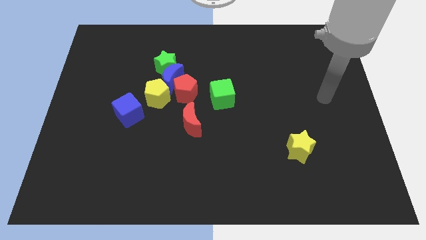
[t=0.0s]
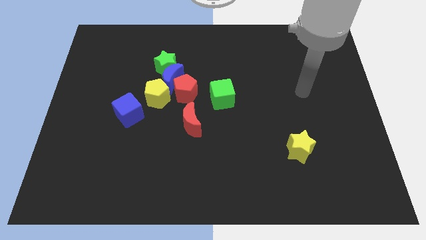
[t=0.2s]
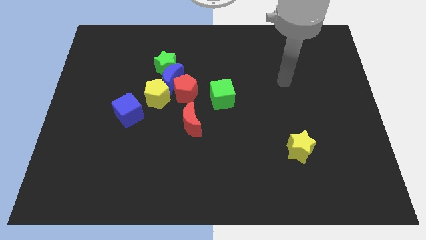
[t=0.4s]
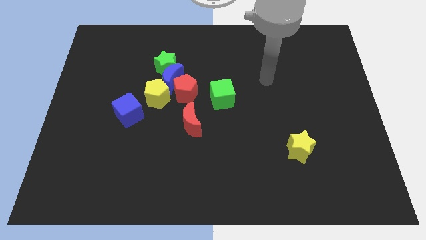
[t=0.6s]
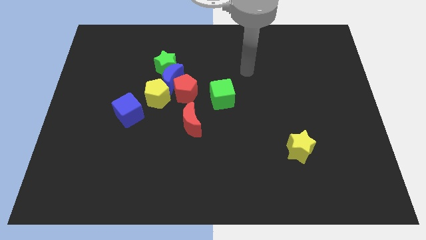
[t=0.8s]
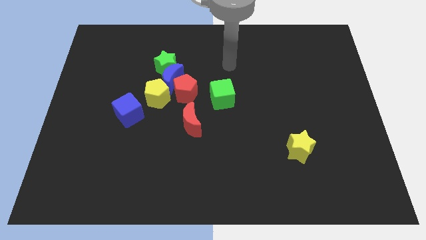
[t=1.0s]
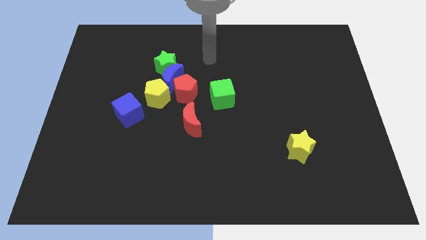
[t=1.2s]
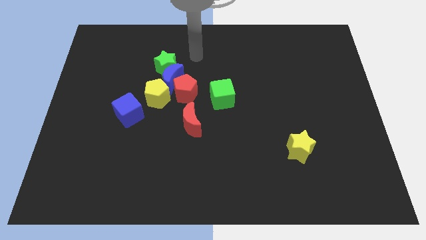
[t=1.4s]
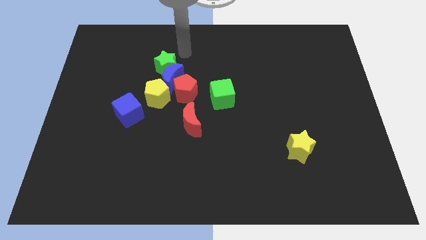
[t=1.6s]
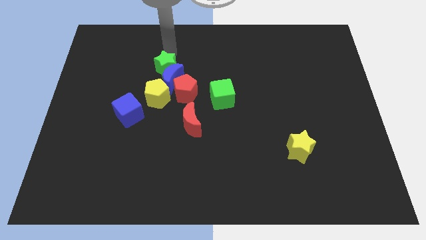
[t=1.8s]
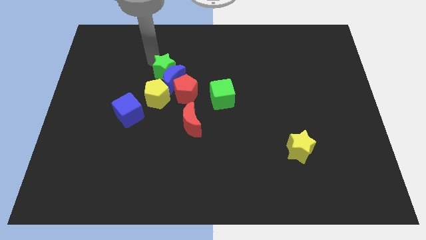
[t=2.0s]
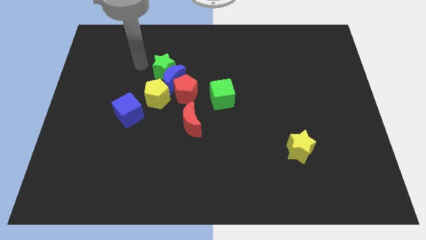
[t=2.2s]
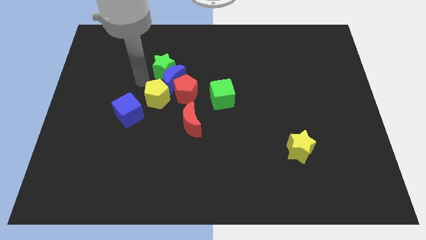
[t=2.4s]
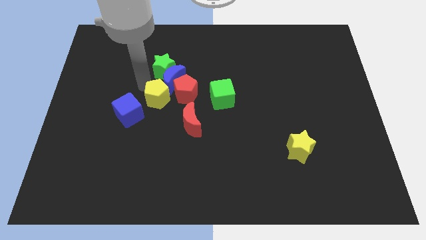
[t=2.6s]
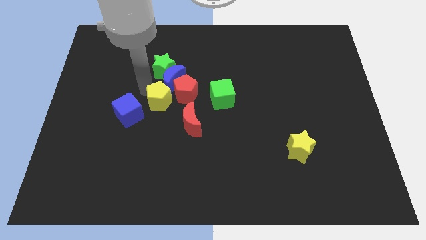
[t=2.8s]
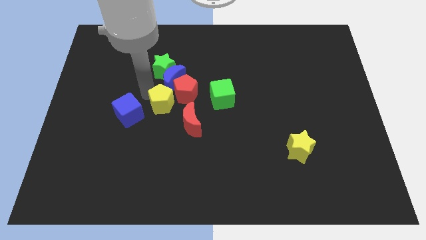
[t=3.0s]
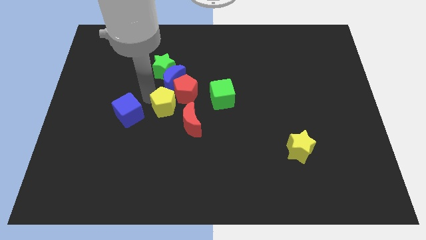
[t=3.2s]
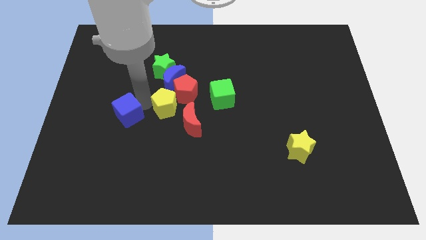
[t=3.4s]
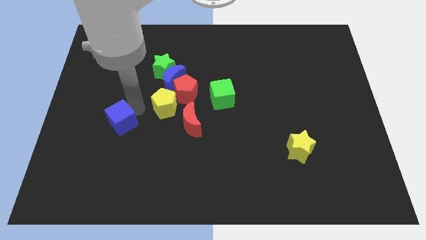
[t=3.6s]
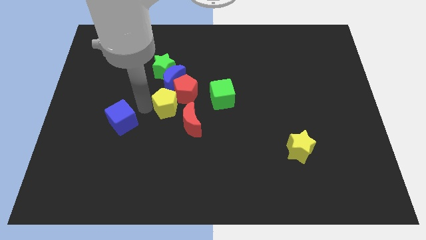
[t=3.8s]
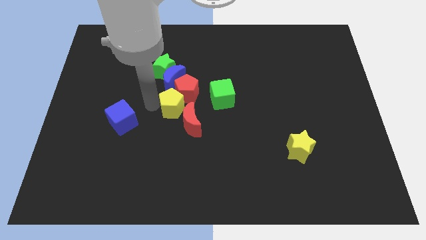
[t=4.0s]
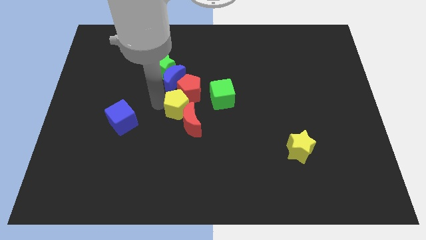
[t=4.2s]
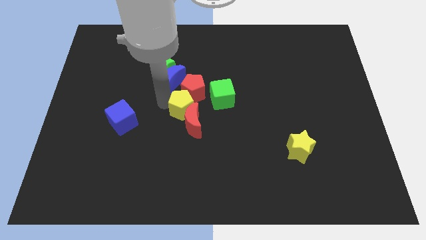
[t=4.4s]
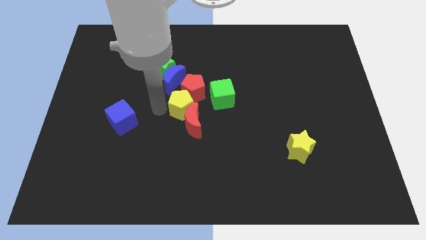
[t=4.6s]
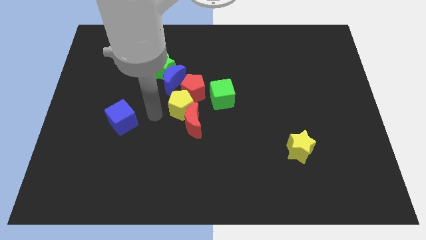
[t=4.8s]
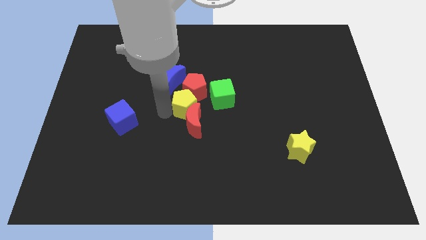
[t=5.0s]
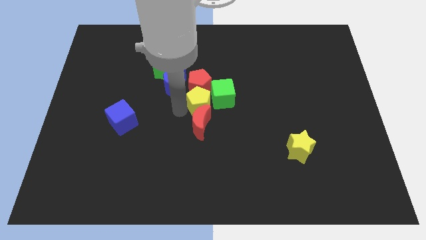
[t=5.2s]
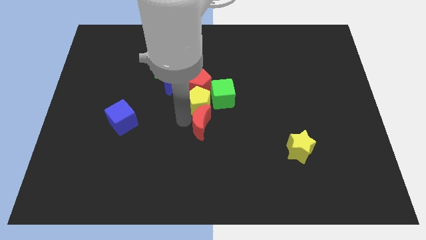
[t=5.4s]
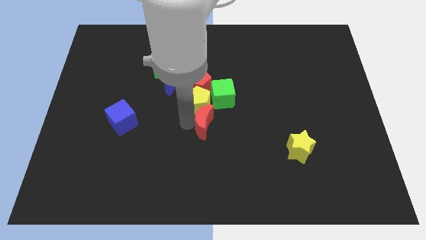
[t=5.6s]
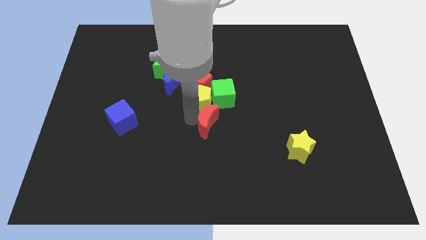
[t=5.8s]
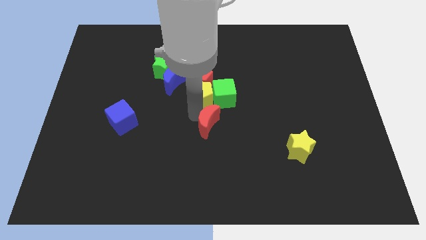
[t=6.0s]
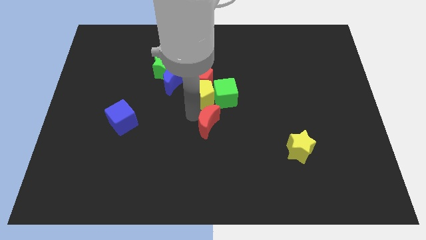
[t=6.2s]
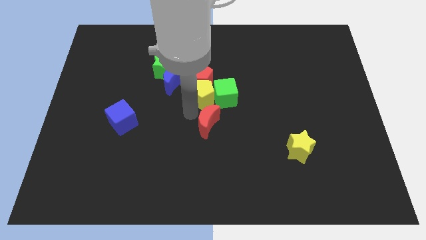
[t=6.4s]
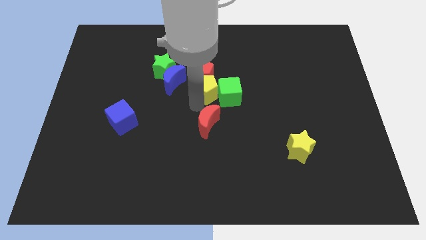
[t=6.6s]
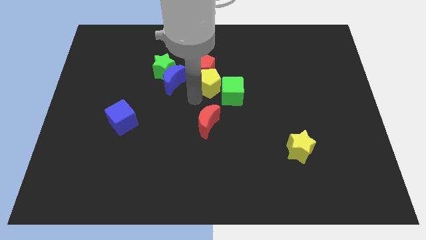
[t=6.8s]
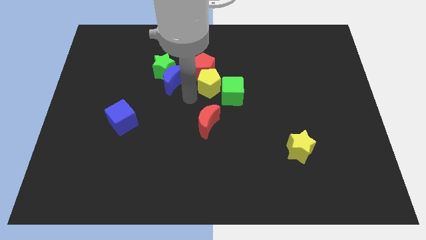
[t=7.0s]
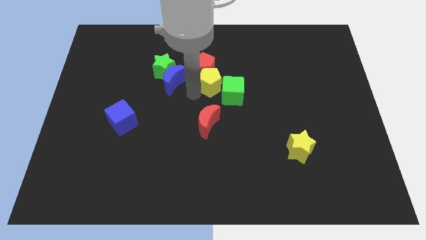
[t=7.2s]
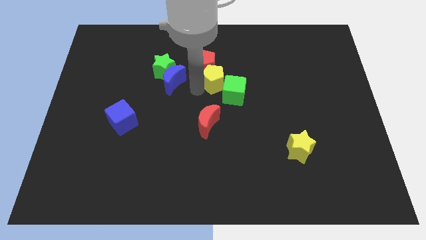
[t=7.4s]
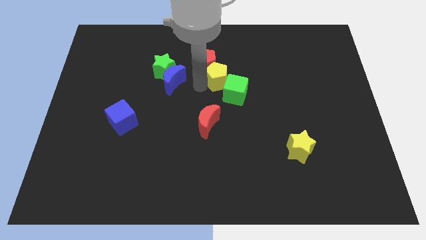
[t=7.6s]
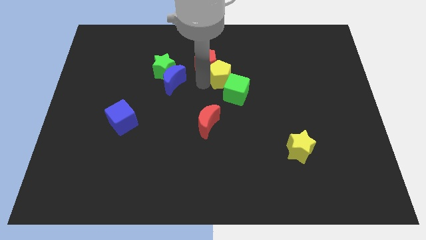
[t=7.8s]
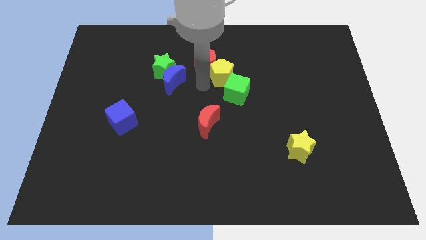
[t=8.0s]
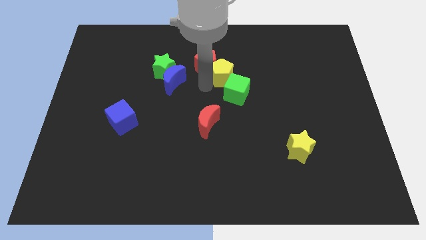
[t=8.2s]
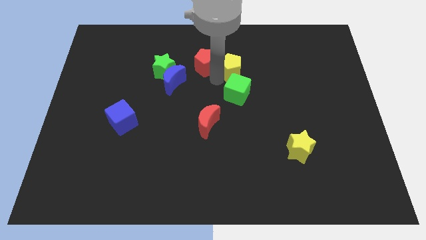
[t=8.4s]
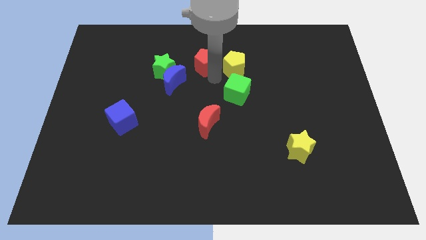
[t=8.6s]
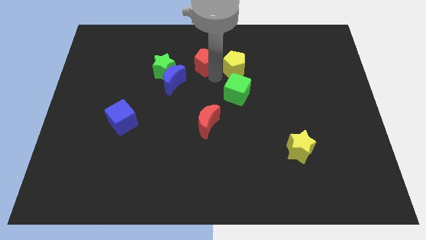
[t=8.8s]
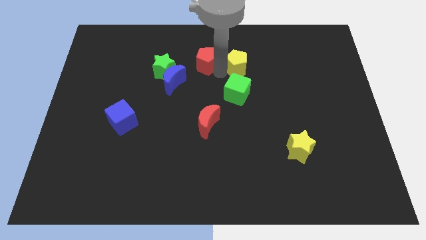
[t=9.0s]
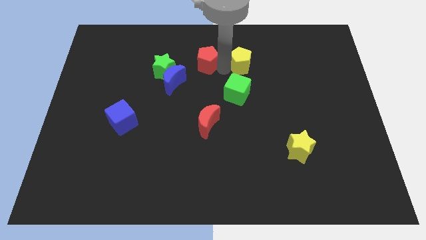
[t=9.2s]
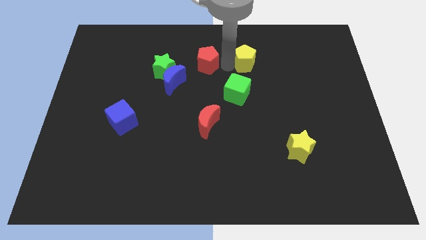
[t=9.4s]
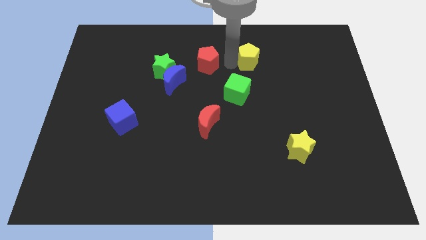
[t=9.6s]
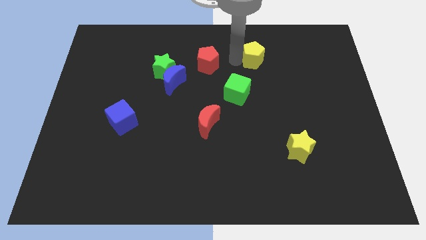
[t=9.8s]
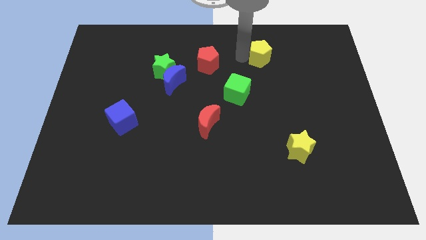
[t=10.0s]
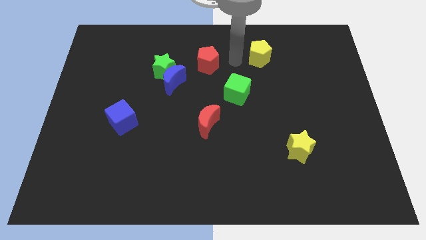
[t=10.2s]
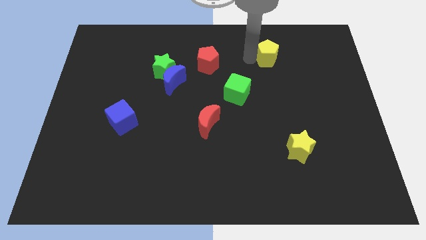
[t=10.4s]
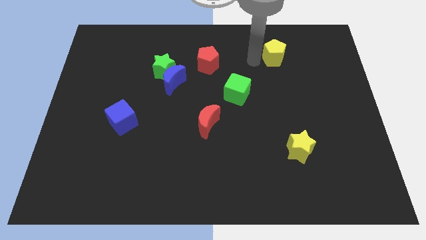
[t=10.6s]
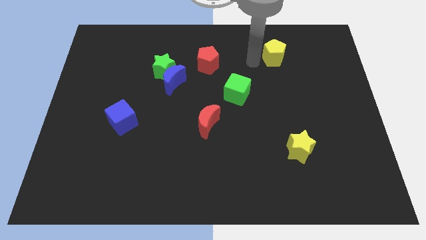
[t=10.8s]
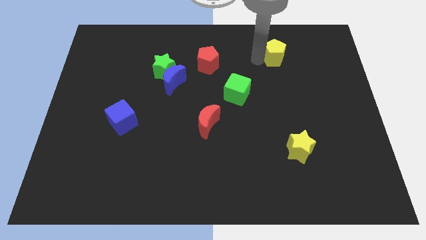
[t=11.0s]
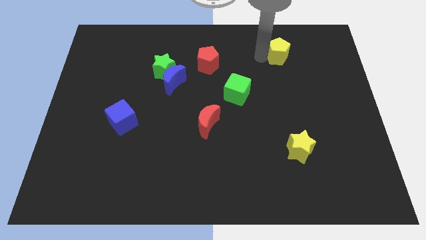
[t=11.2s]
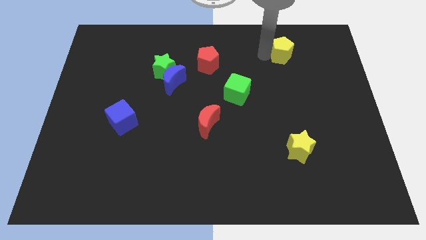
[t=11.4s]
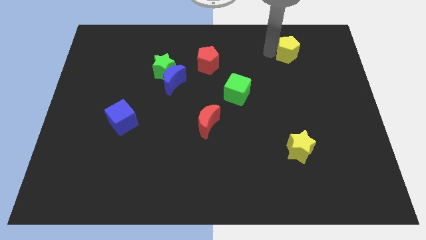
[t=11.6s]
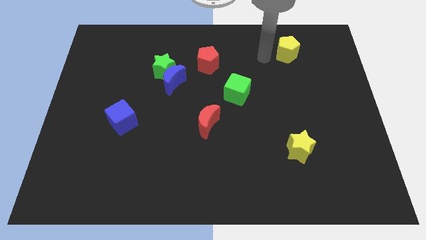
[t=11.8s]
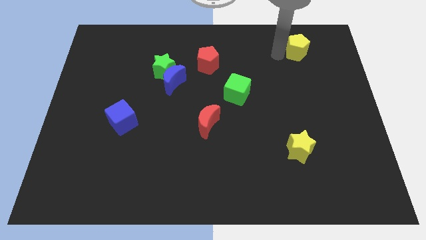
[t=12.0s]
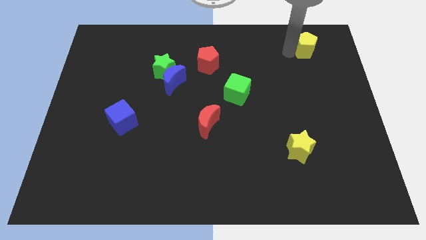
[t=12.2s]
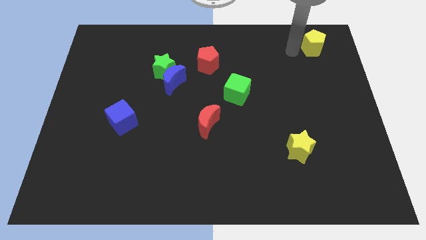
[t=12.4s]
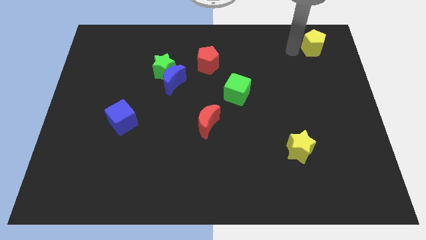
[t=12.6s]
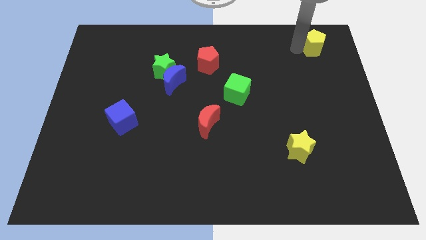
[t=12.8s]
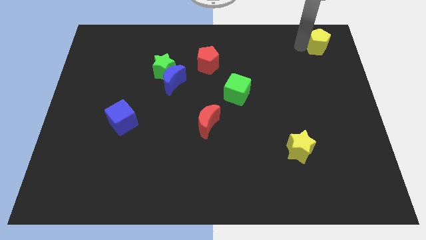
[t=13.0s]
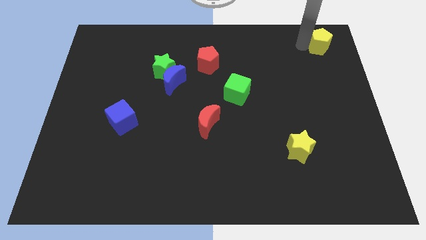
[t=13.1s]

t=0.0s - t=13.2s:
move the yellow pentagon to the upper right corner
